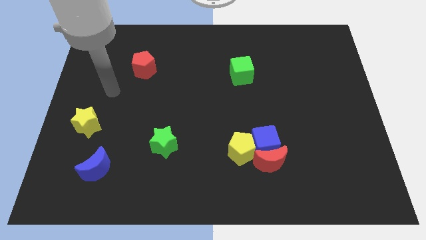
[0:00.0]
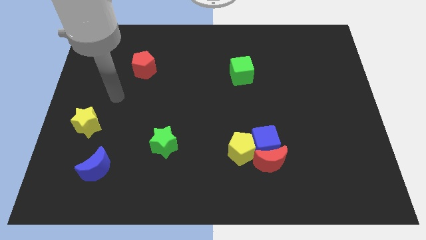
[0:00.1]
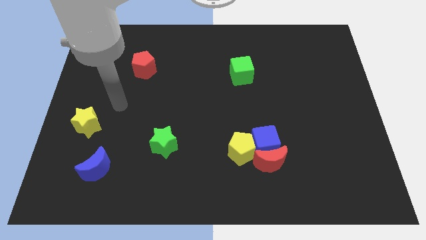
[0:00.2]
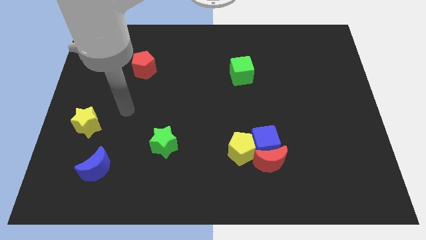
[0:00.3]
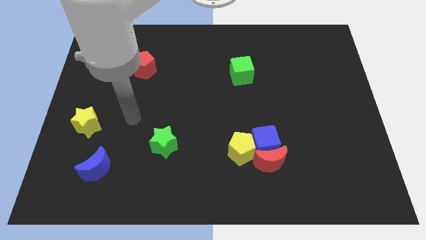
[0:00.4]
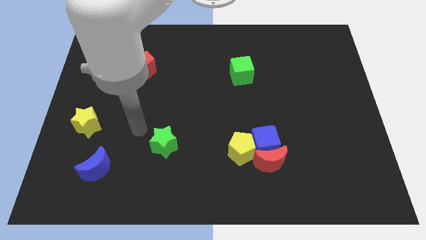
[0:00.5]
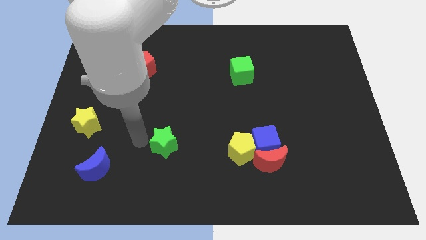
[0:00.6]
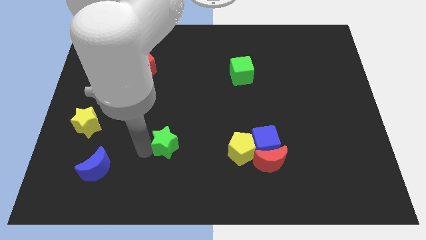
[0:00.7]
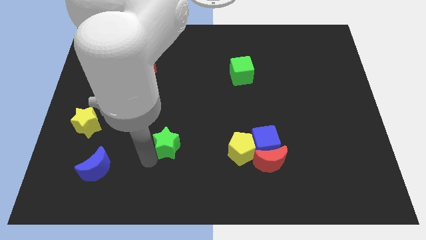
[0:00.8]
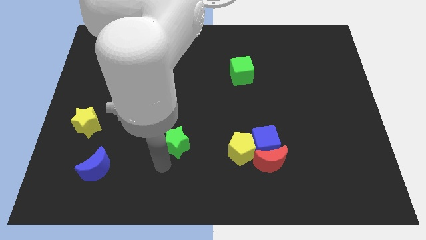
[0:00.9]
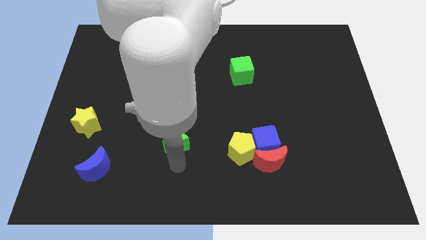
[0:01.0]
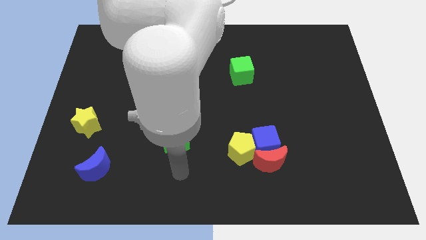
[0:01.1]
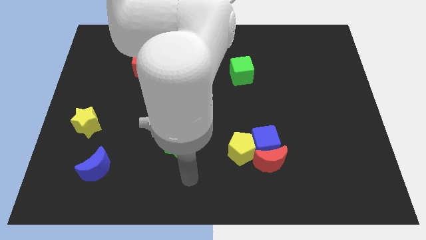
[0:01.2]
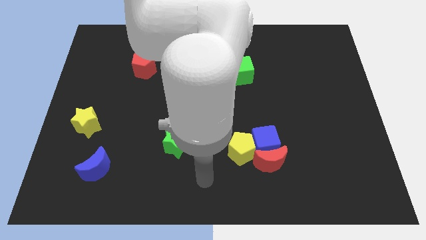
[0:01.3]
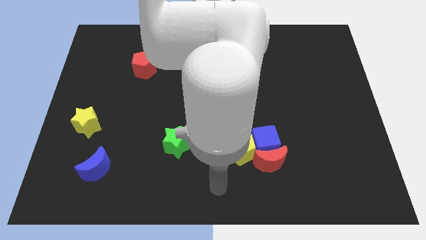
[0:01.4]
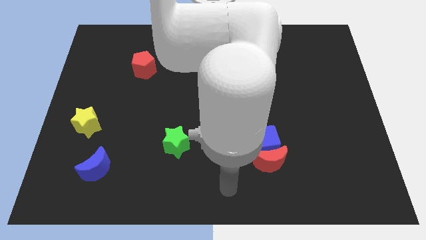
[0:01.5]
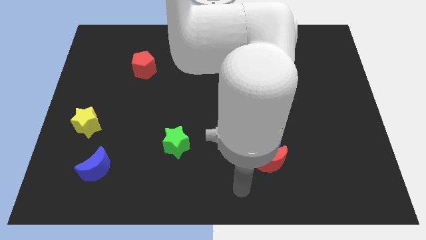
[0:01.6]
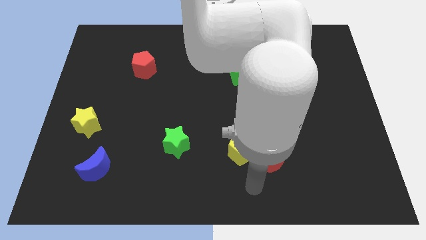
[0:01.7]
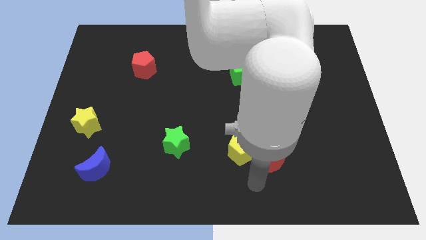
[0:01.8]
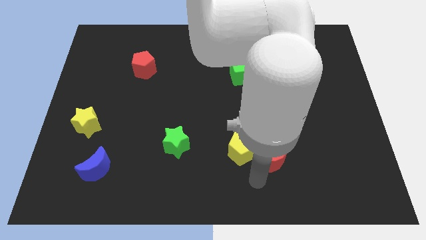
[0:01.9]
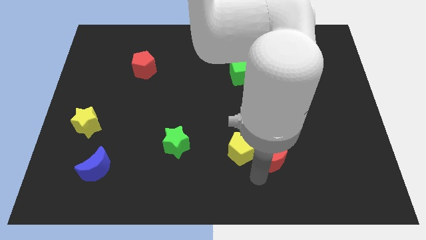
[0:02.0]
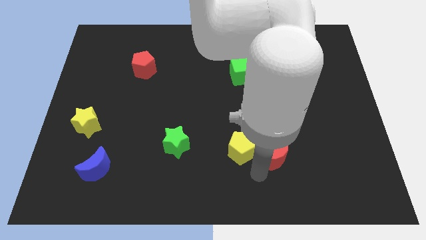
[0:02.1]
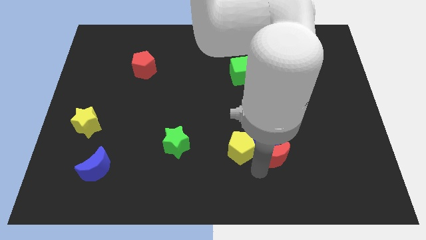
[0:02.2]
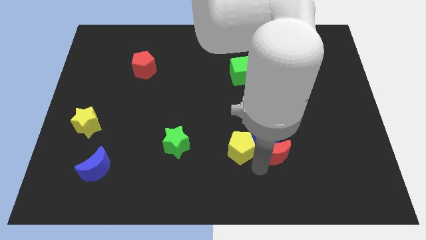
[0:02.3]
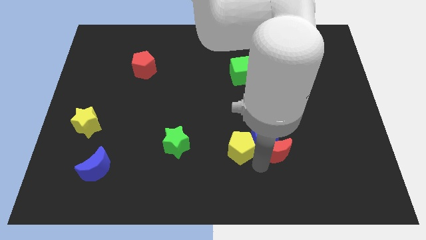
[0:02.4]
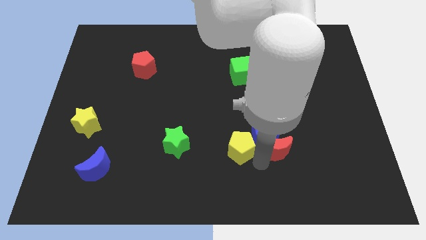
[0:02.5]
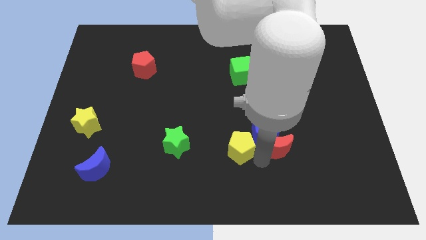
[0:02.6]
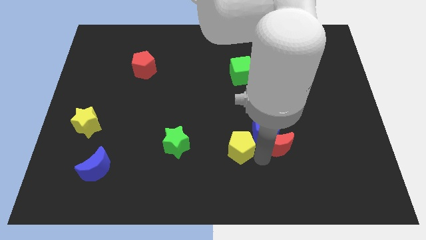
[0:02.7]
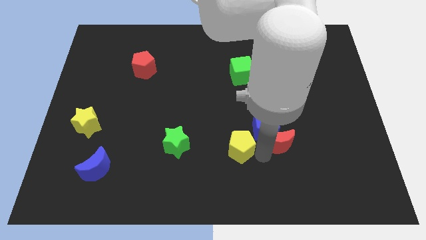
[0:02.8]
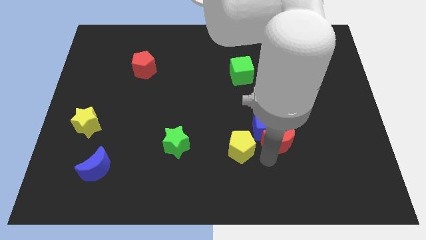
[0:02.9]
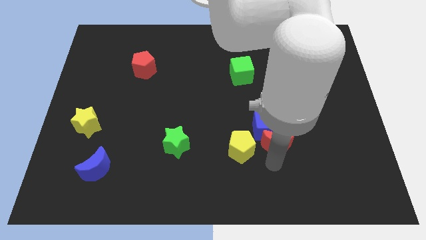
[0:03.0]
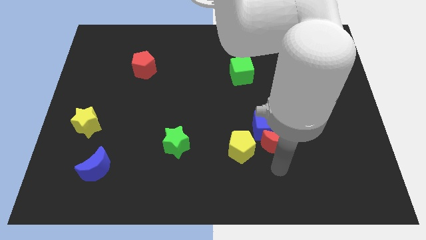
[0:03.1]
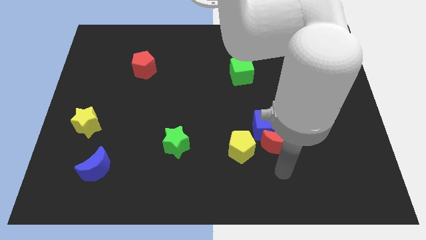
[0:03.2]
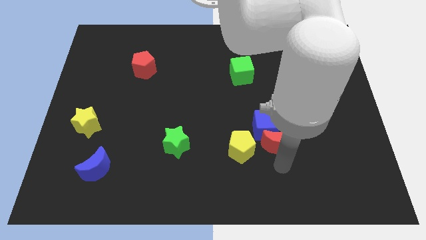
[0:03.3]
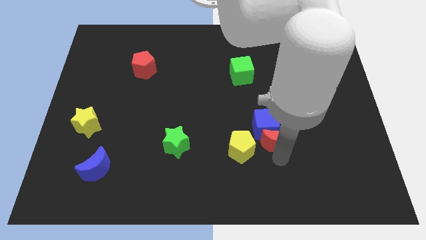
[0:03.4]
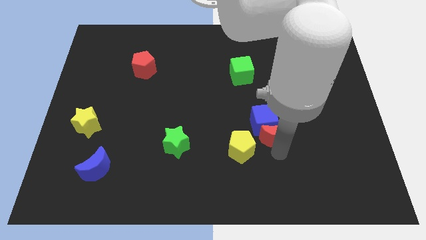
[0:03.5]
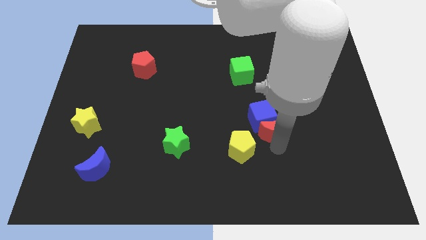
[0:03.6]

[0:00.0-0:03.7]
slightly move the red moon up

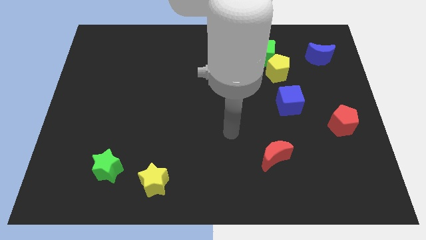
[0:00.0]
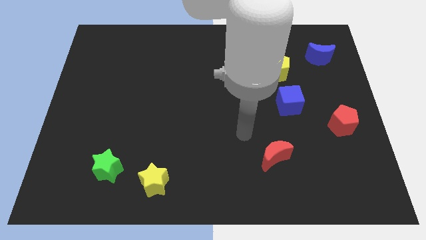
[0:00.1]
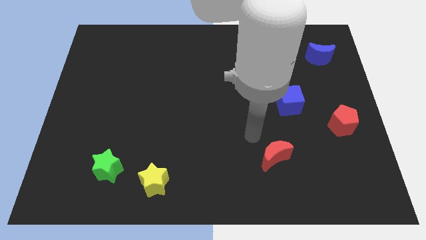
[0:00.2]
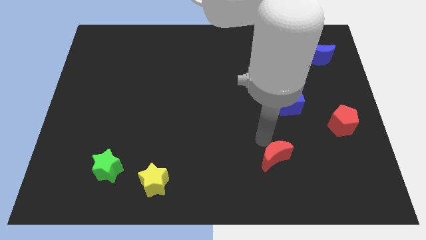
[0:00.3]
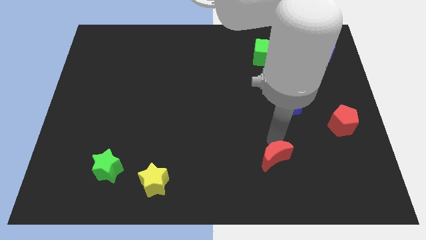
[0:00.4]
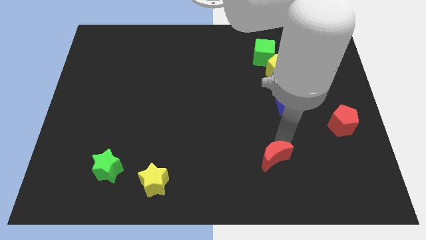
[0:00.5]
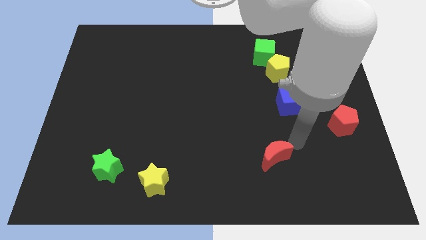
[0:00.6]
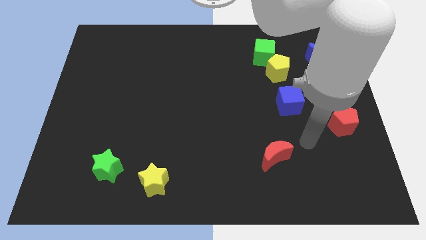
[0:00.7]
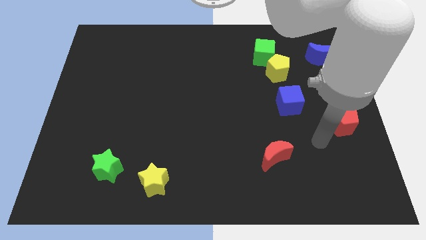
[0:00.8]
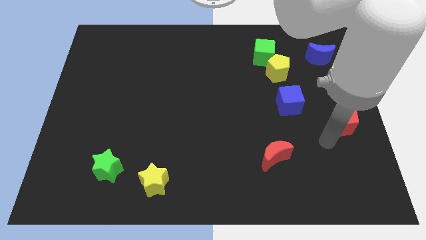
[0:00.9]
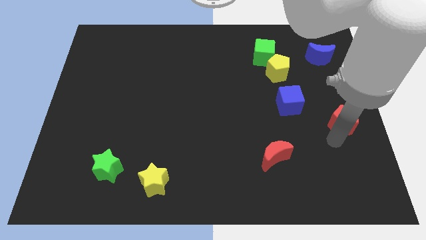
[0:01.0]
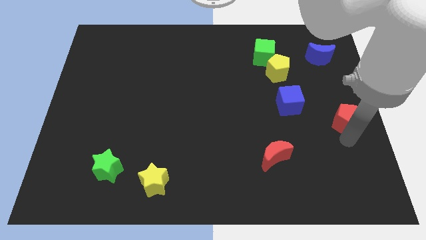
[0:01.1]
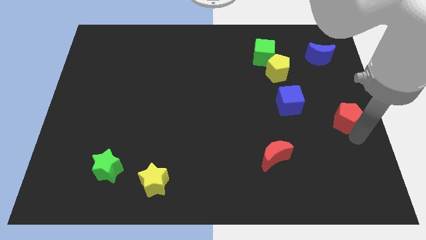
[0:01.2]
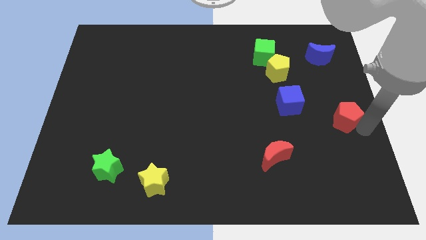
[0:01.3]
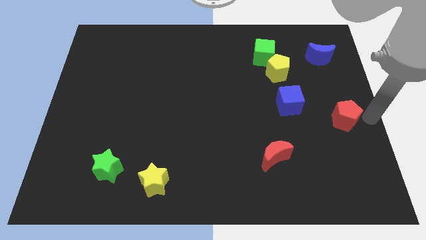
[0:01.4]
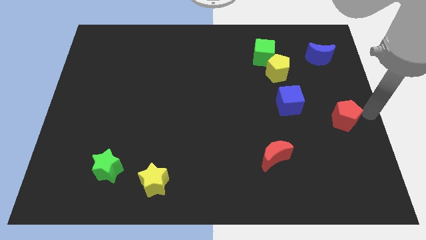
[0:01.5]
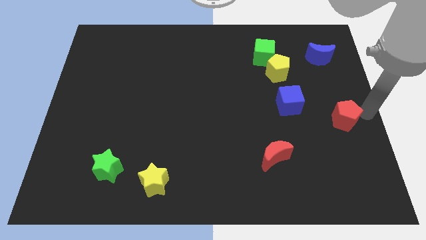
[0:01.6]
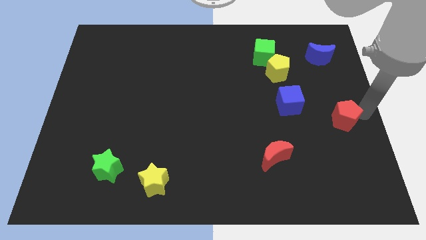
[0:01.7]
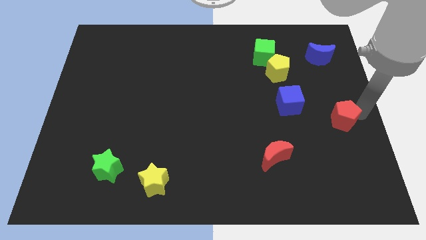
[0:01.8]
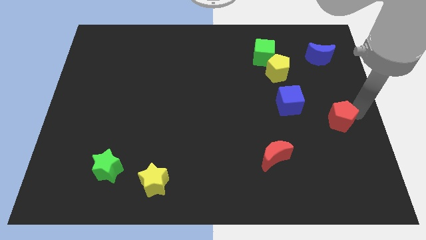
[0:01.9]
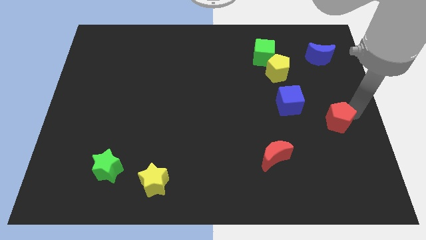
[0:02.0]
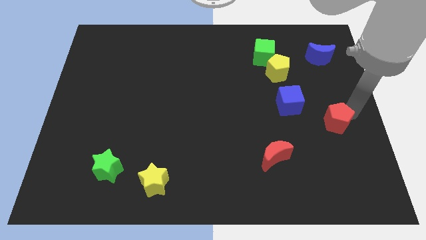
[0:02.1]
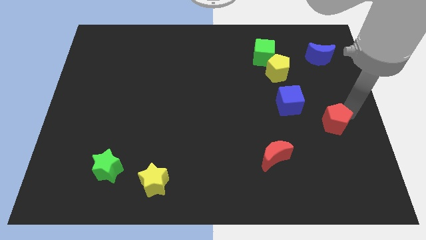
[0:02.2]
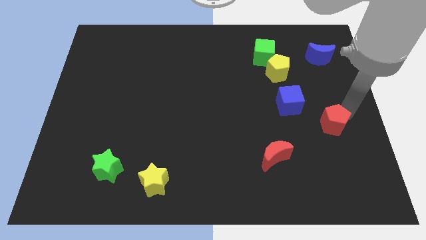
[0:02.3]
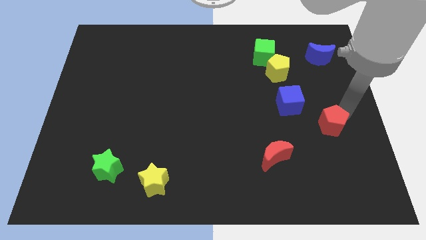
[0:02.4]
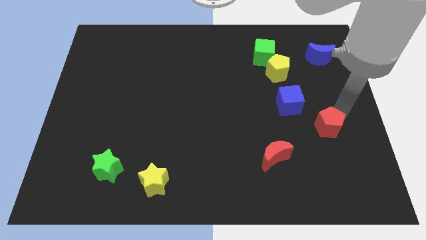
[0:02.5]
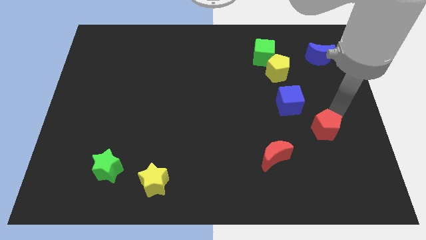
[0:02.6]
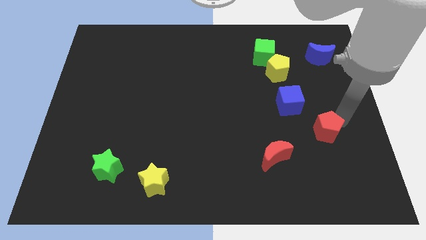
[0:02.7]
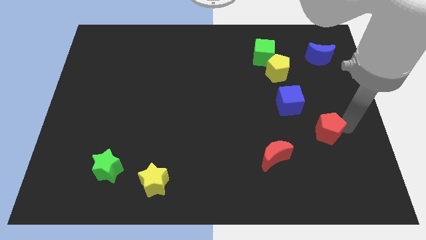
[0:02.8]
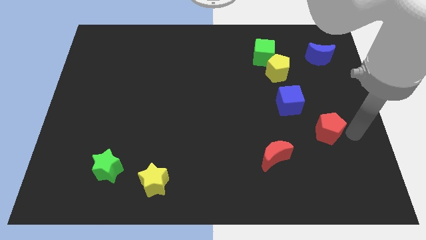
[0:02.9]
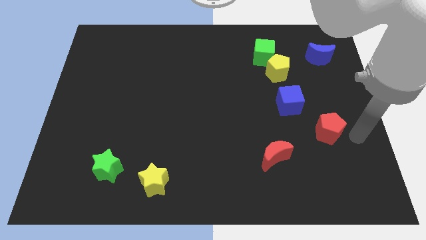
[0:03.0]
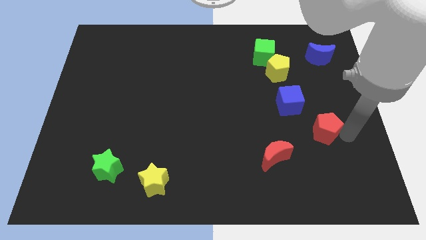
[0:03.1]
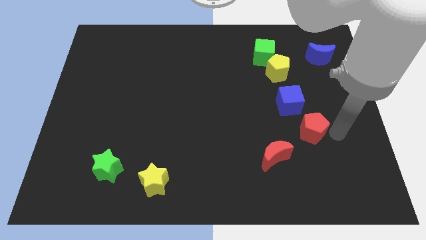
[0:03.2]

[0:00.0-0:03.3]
slide the red pentagon a little bit left

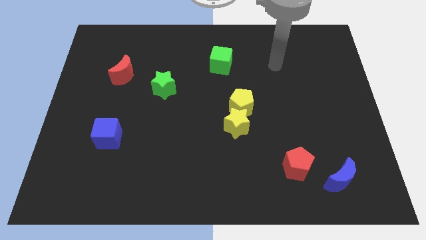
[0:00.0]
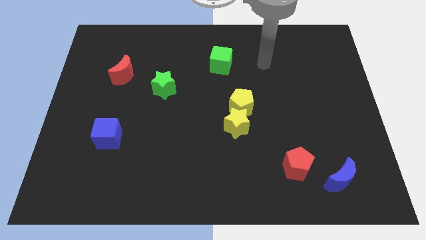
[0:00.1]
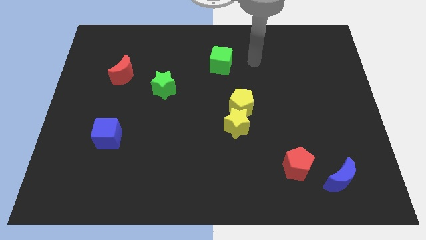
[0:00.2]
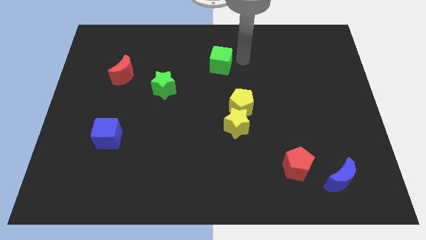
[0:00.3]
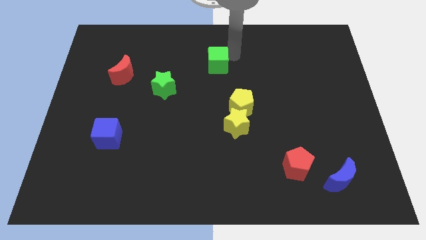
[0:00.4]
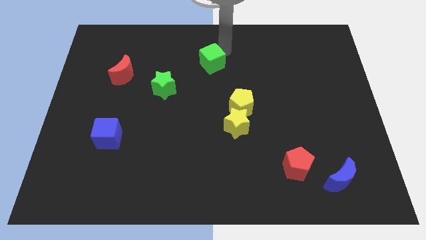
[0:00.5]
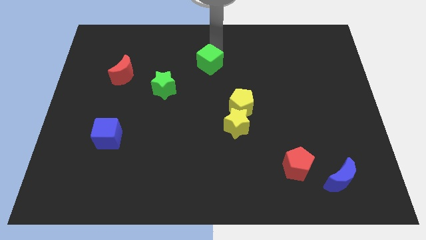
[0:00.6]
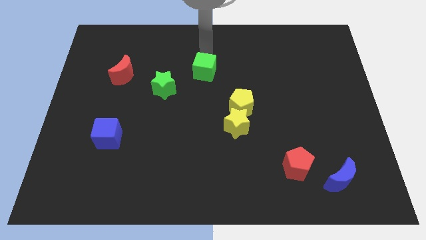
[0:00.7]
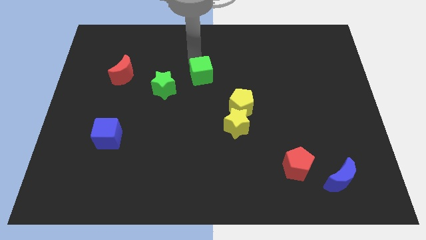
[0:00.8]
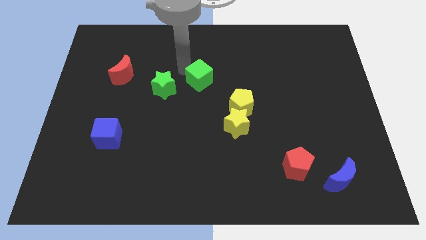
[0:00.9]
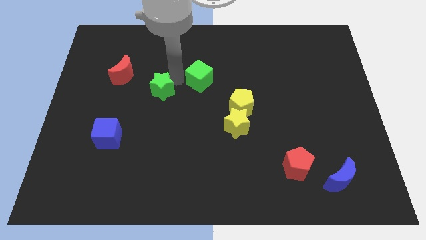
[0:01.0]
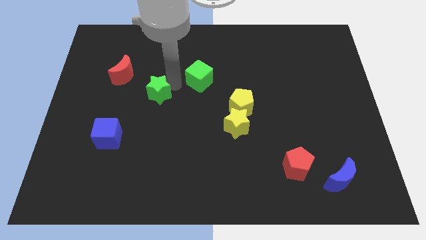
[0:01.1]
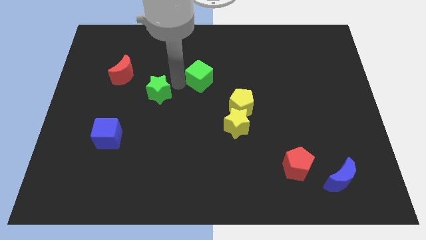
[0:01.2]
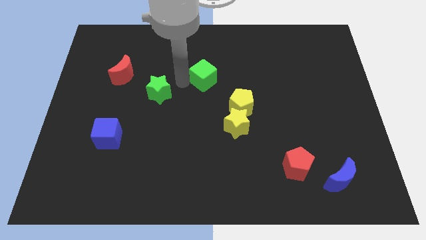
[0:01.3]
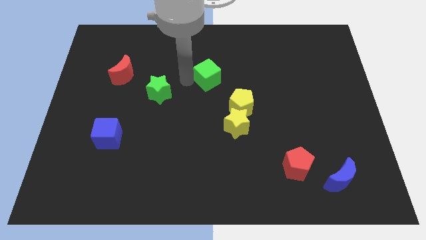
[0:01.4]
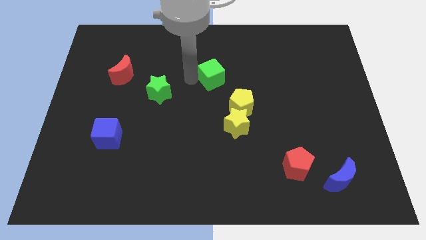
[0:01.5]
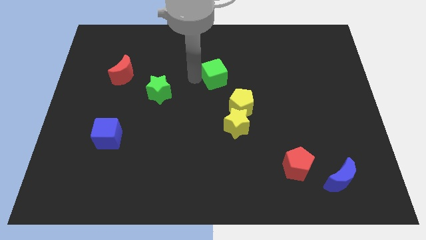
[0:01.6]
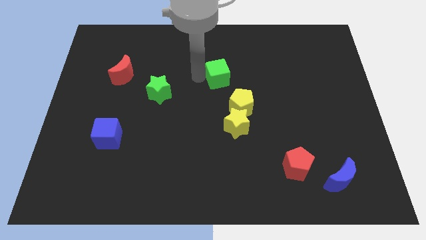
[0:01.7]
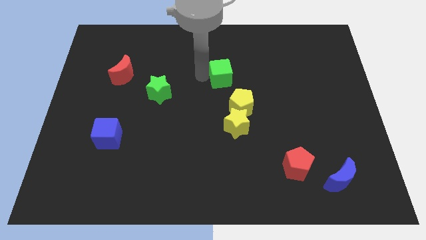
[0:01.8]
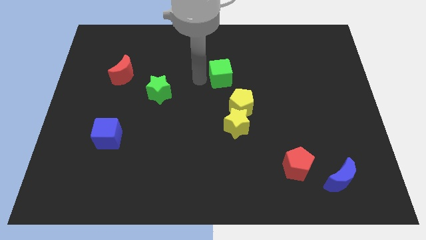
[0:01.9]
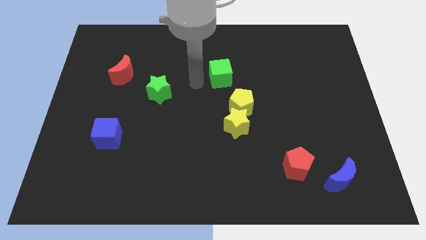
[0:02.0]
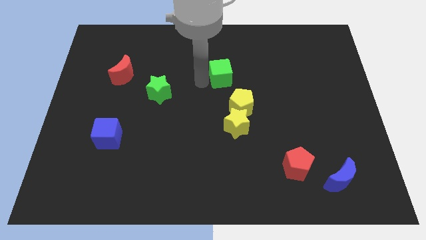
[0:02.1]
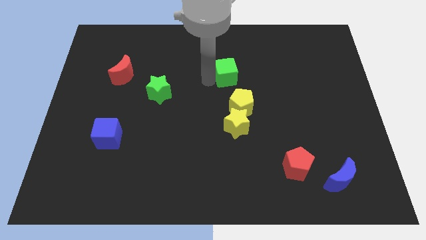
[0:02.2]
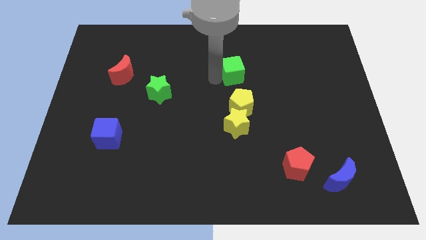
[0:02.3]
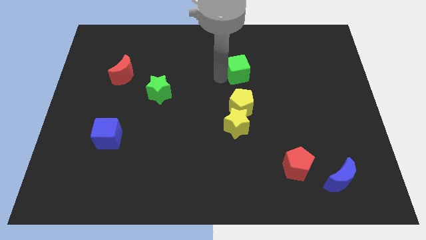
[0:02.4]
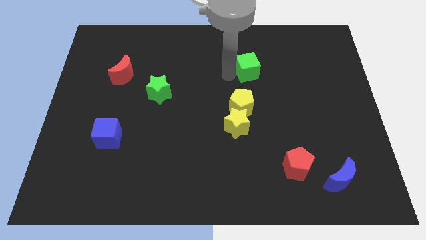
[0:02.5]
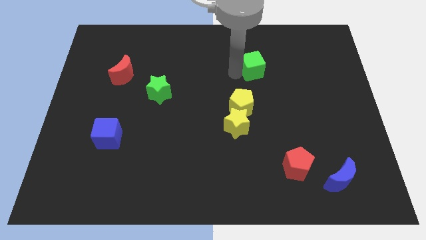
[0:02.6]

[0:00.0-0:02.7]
slightly move the green cube right
